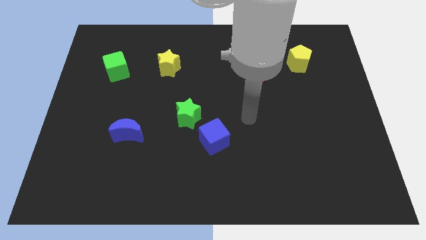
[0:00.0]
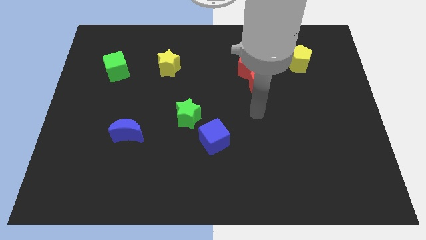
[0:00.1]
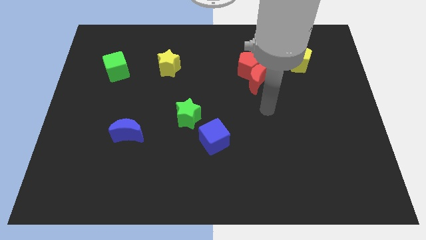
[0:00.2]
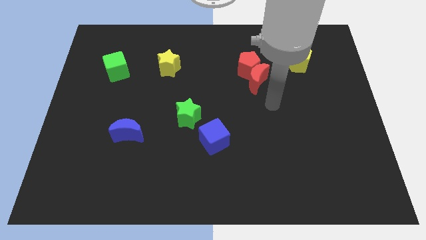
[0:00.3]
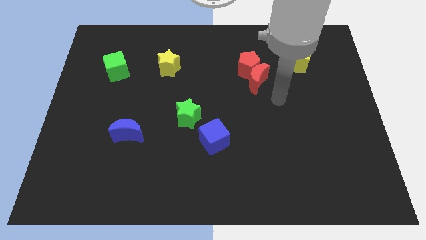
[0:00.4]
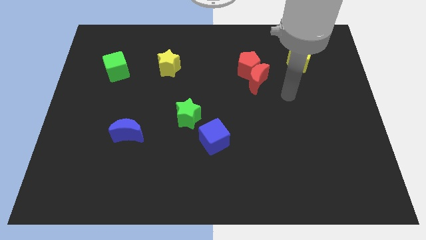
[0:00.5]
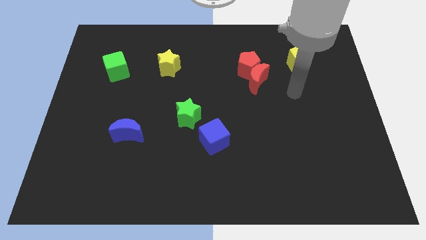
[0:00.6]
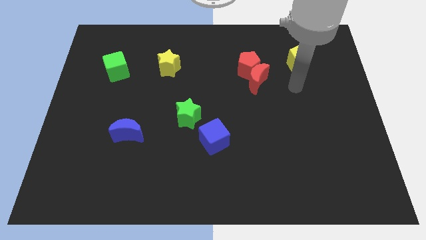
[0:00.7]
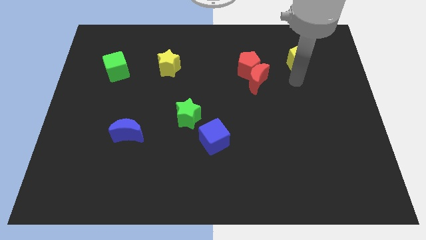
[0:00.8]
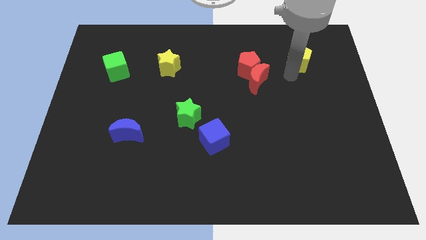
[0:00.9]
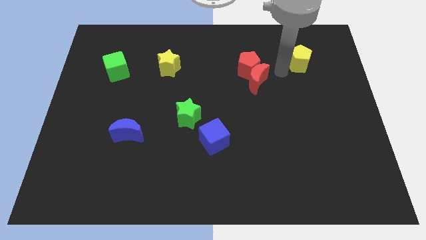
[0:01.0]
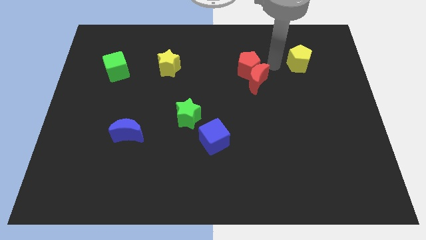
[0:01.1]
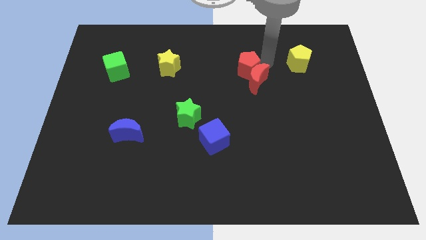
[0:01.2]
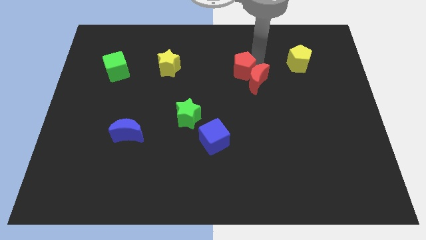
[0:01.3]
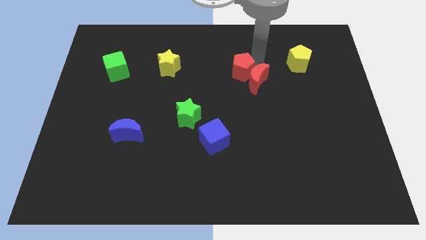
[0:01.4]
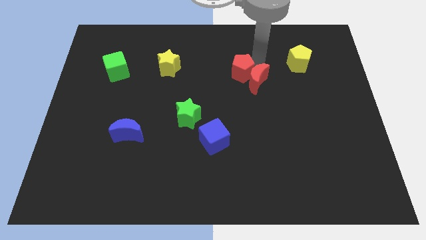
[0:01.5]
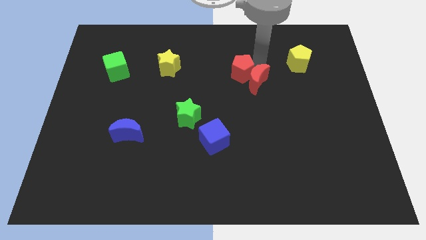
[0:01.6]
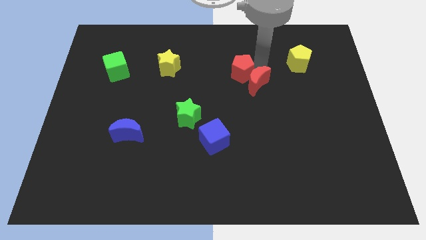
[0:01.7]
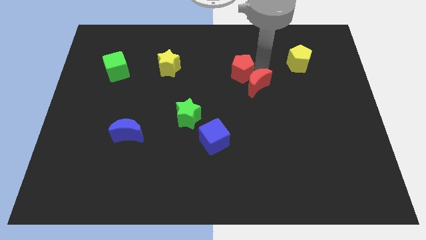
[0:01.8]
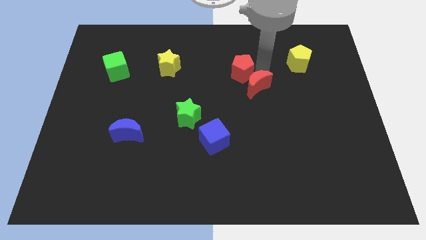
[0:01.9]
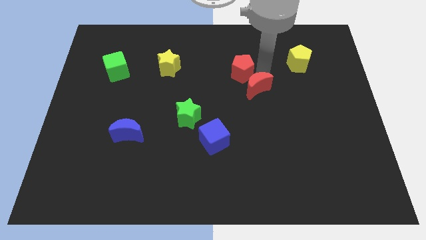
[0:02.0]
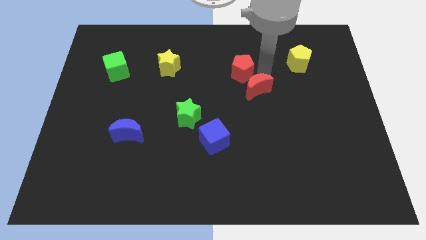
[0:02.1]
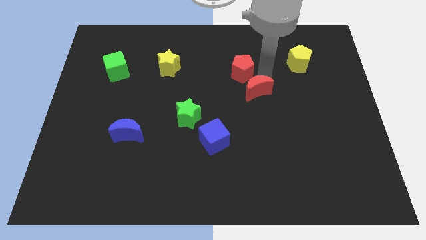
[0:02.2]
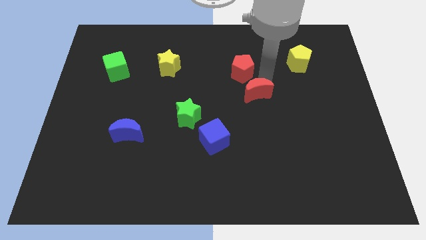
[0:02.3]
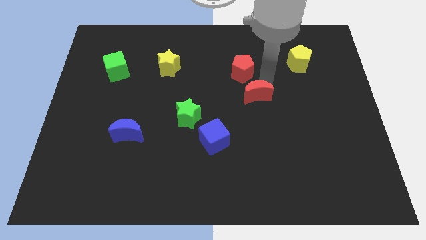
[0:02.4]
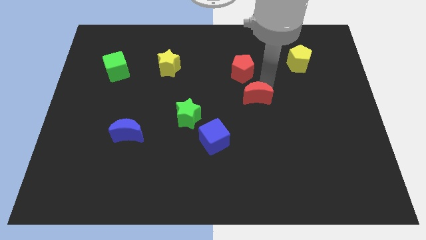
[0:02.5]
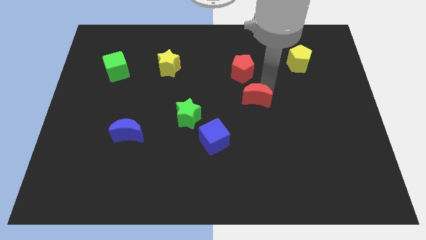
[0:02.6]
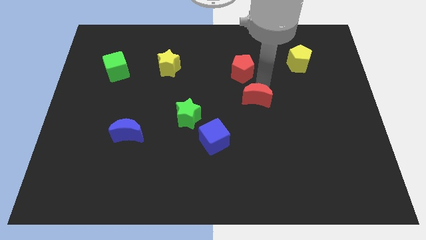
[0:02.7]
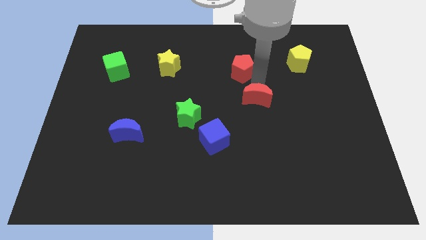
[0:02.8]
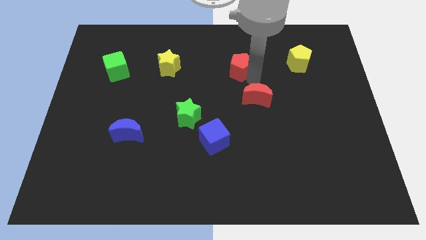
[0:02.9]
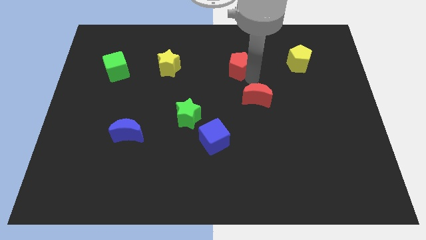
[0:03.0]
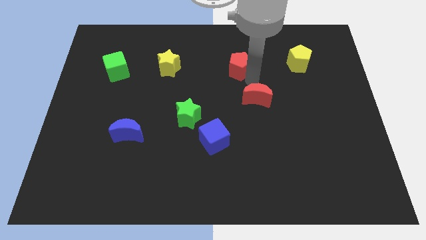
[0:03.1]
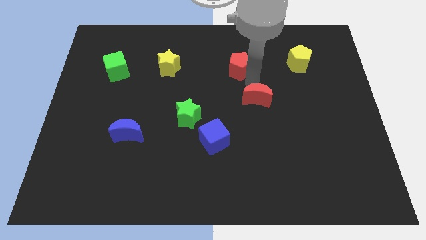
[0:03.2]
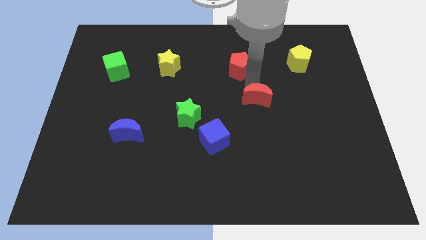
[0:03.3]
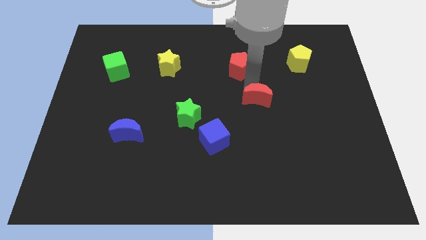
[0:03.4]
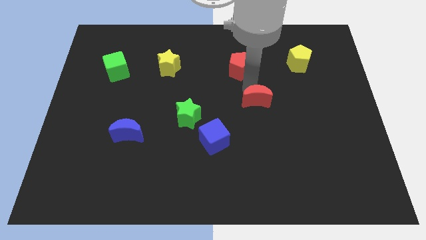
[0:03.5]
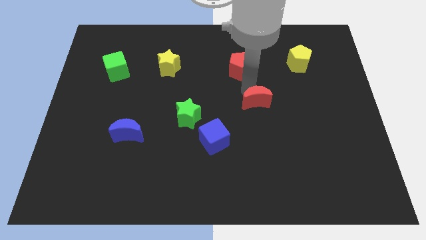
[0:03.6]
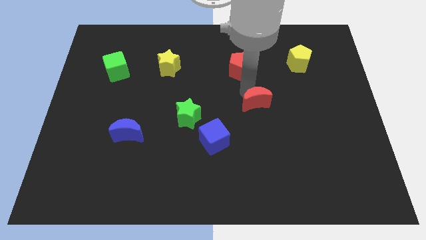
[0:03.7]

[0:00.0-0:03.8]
slightly move the red moon down

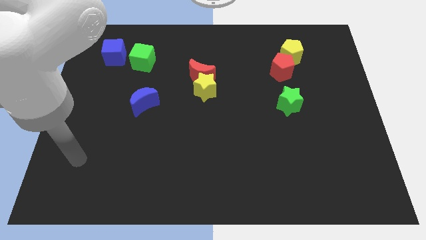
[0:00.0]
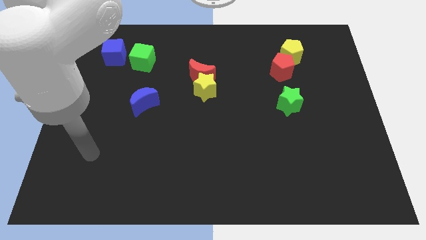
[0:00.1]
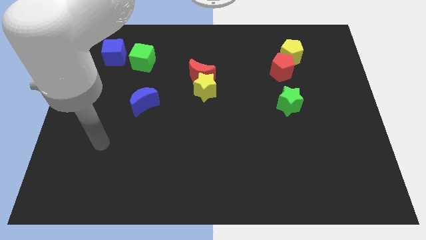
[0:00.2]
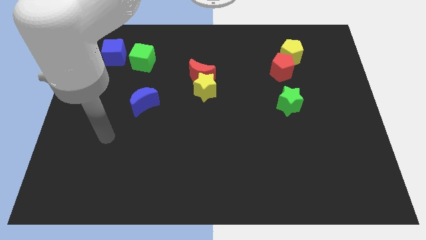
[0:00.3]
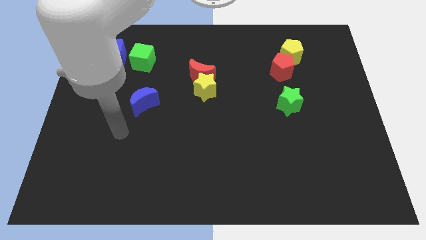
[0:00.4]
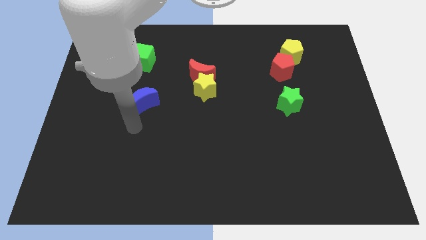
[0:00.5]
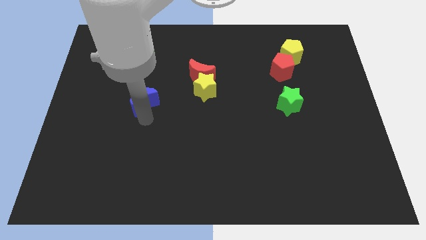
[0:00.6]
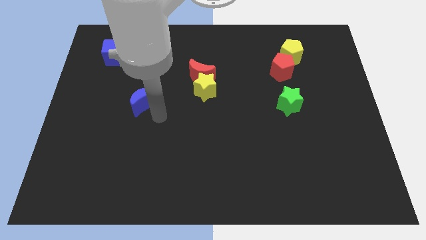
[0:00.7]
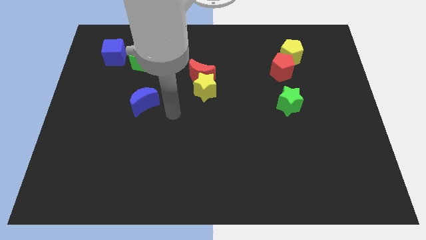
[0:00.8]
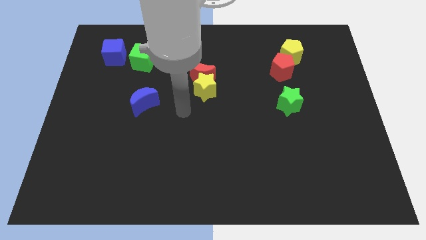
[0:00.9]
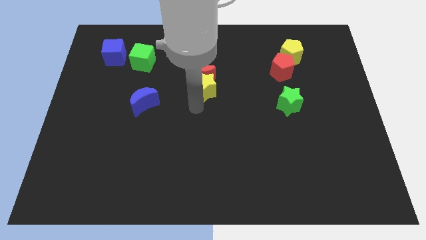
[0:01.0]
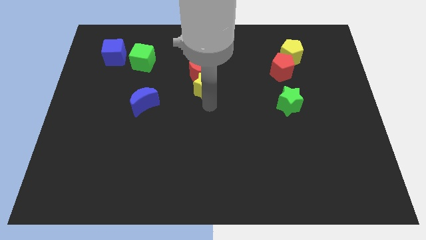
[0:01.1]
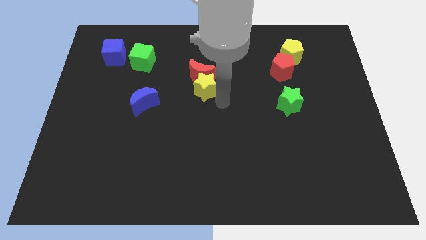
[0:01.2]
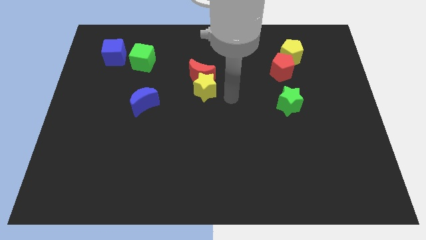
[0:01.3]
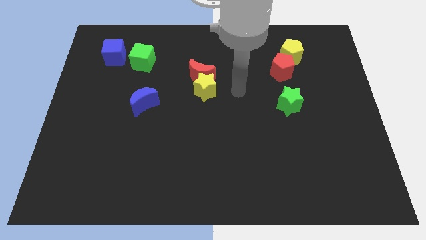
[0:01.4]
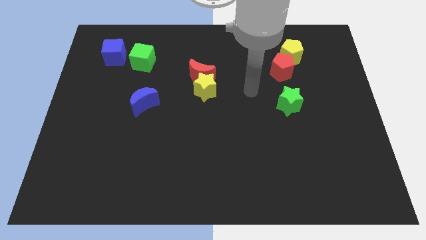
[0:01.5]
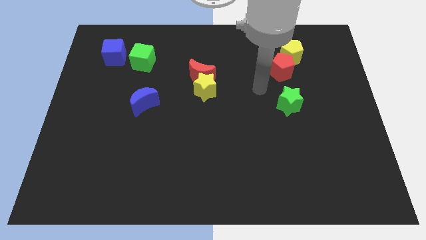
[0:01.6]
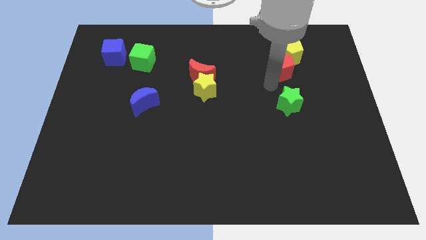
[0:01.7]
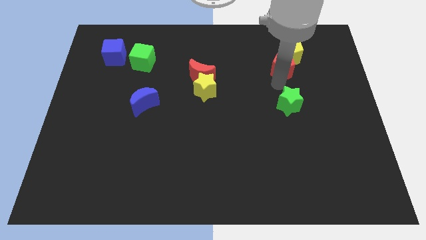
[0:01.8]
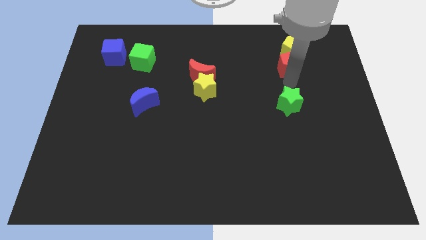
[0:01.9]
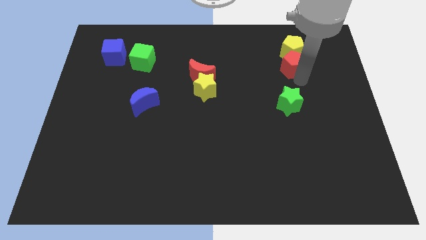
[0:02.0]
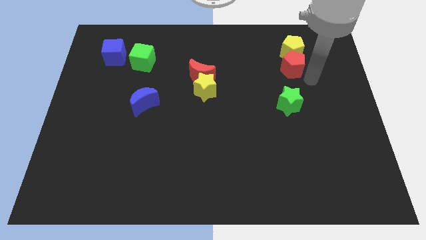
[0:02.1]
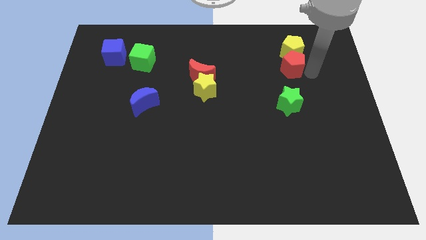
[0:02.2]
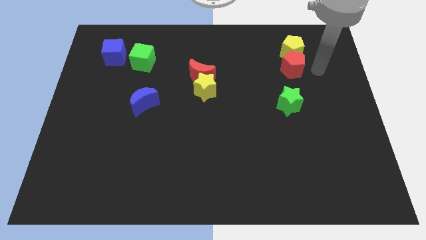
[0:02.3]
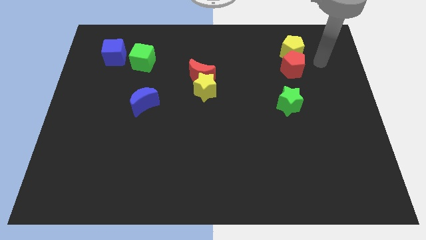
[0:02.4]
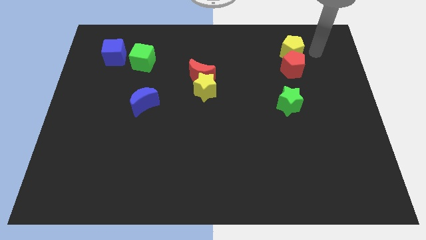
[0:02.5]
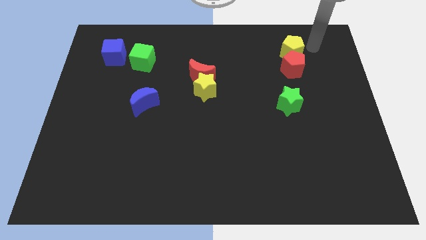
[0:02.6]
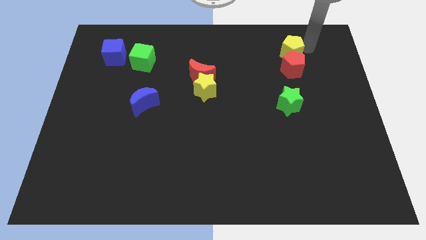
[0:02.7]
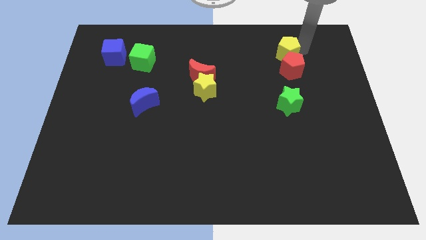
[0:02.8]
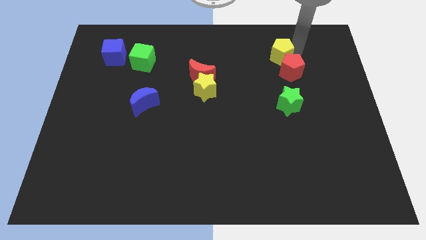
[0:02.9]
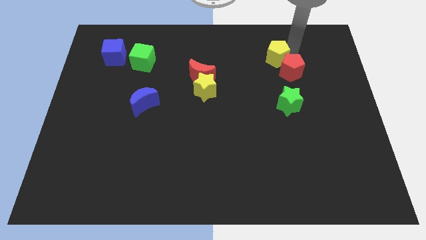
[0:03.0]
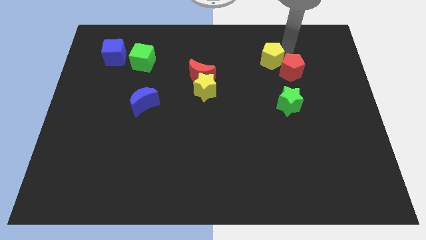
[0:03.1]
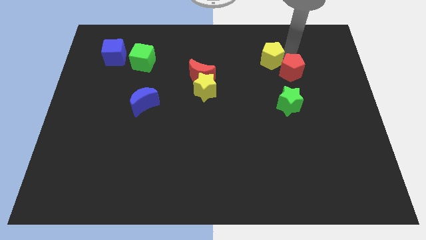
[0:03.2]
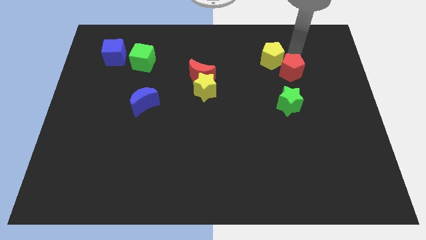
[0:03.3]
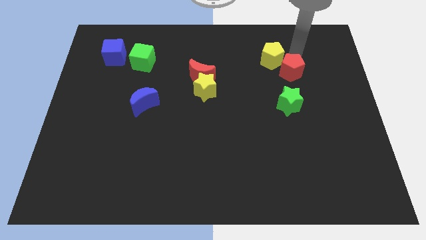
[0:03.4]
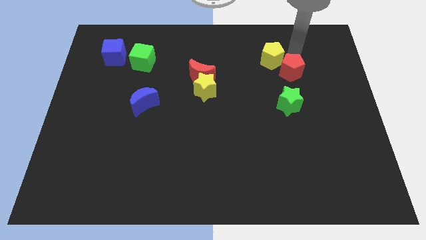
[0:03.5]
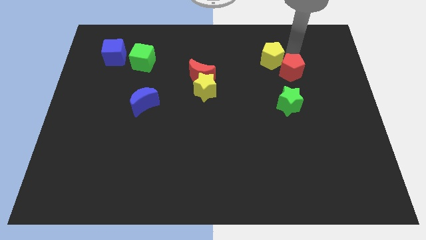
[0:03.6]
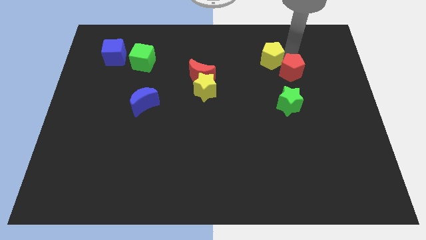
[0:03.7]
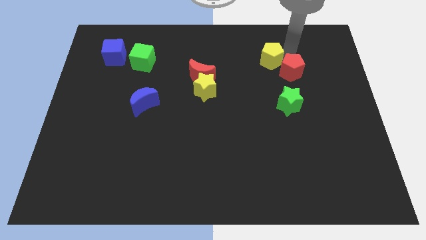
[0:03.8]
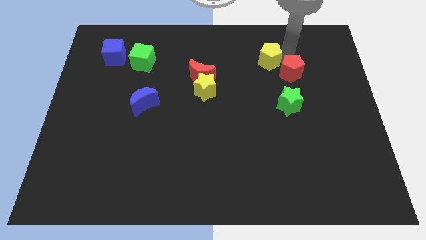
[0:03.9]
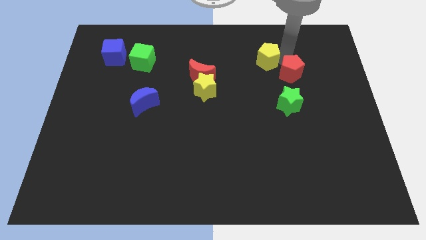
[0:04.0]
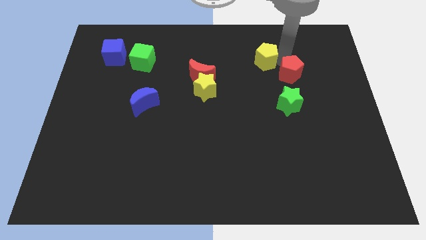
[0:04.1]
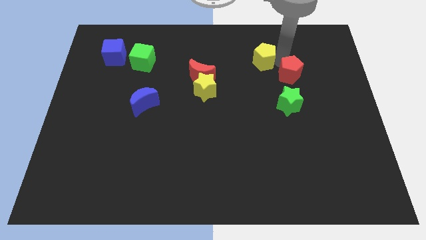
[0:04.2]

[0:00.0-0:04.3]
slide the yellow pentagon somewhat to the left
